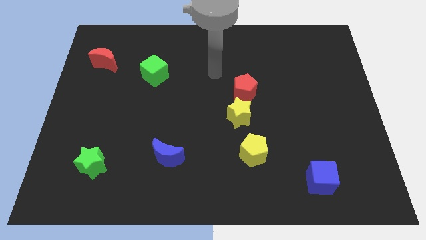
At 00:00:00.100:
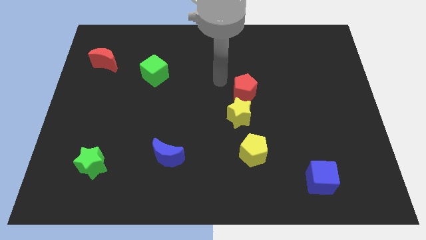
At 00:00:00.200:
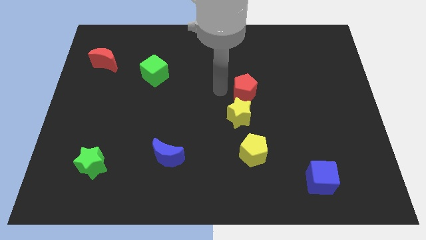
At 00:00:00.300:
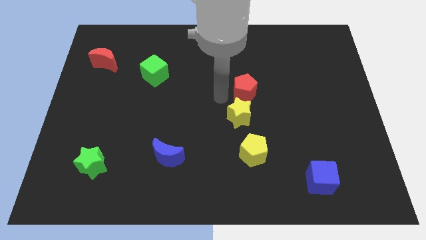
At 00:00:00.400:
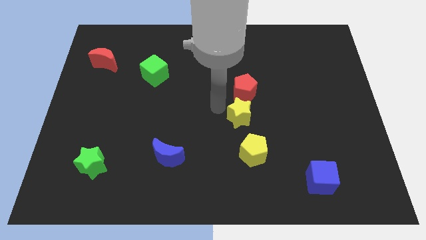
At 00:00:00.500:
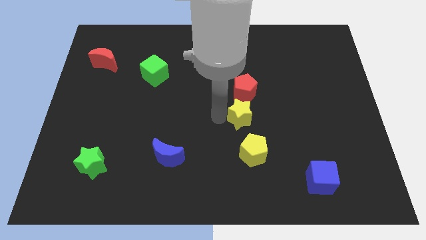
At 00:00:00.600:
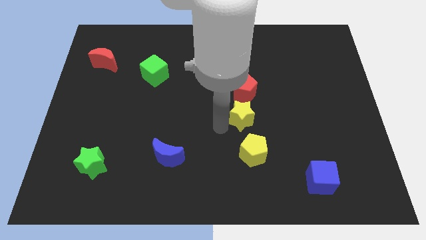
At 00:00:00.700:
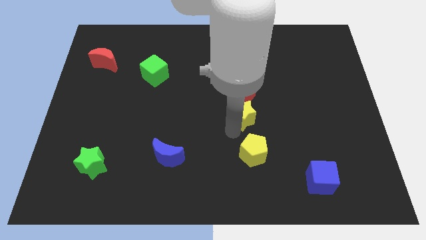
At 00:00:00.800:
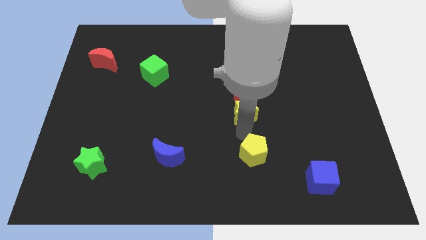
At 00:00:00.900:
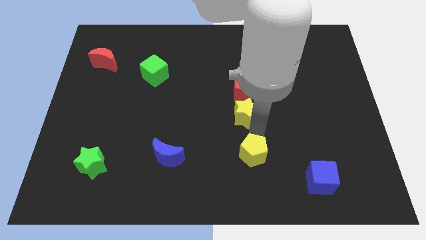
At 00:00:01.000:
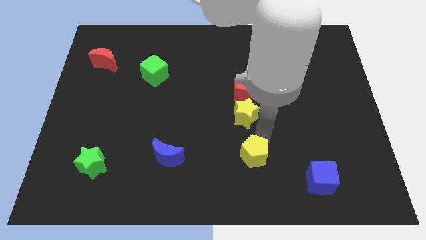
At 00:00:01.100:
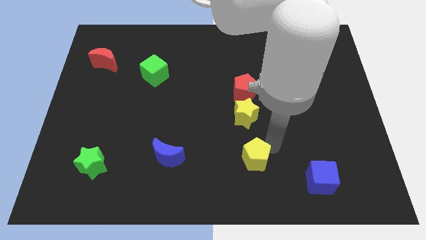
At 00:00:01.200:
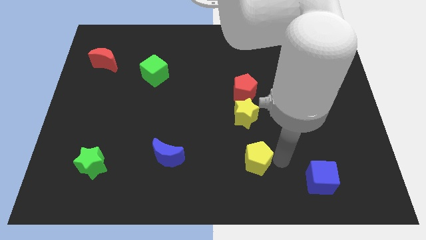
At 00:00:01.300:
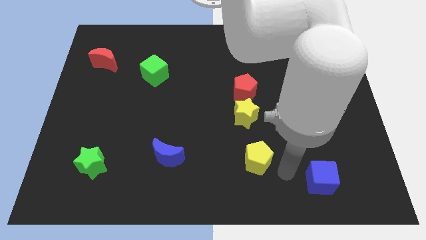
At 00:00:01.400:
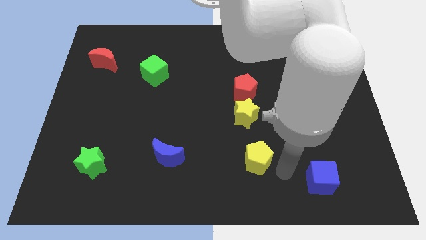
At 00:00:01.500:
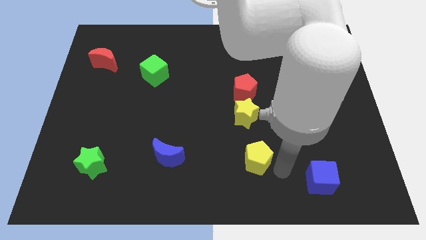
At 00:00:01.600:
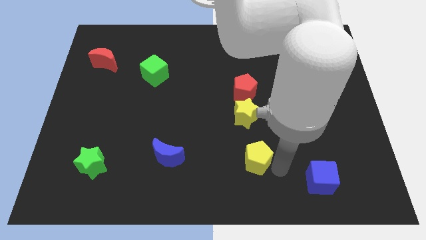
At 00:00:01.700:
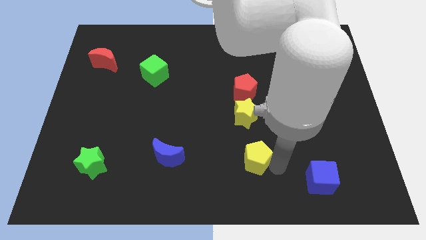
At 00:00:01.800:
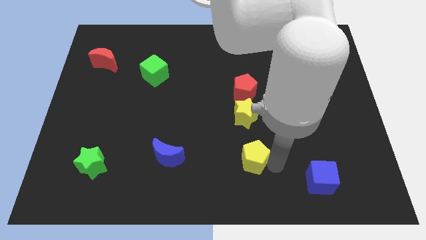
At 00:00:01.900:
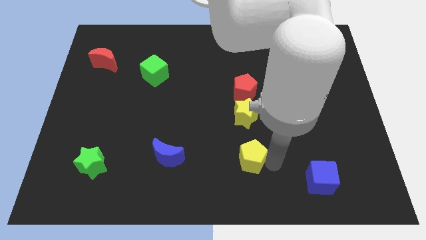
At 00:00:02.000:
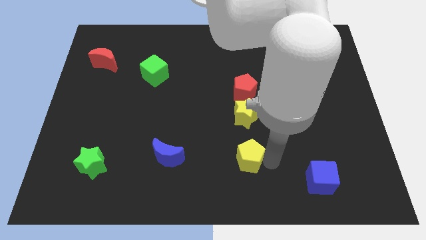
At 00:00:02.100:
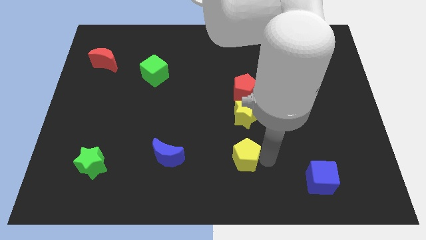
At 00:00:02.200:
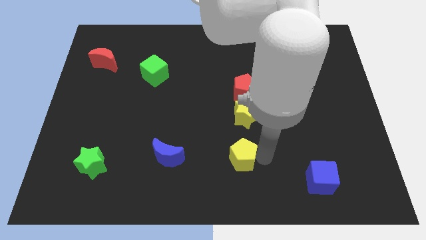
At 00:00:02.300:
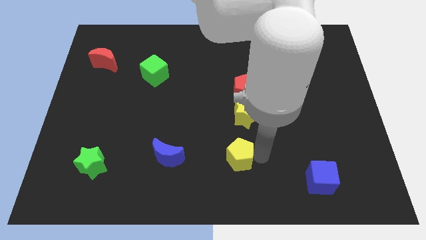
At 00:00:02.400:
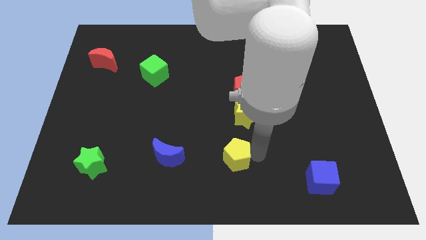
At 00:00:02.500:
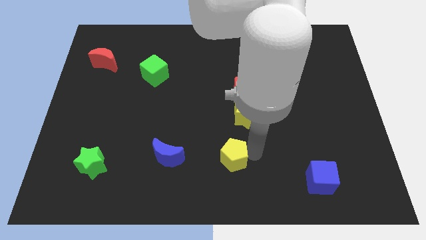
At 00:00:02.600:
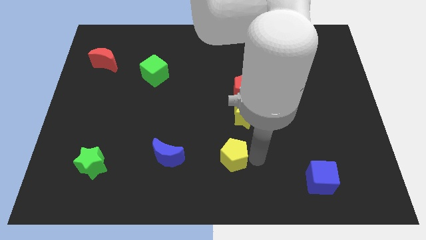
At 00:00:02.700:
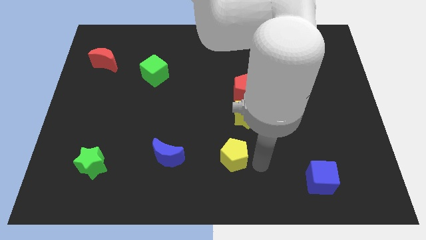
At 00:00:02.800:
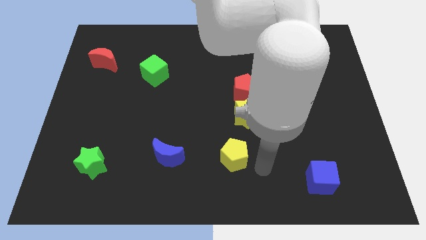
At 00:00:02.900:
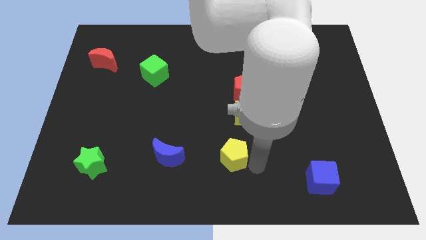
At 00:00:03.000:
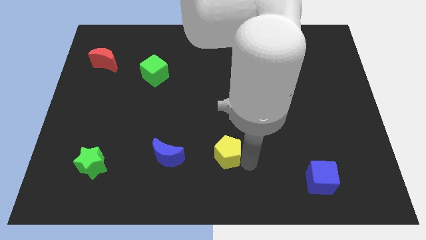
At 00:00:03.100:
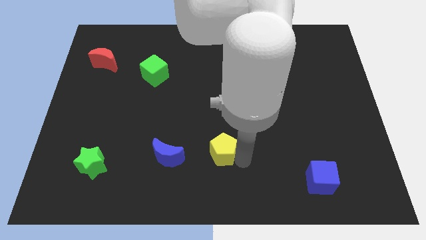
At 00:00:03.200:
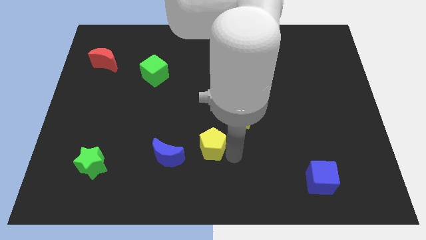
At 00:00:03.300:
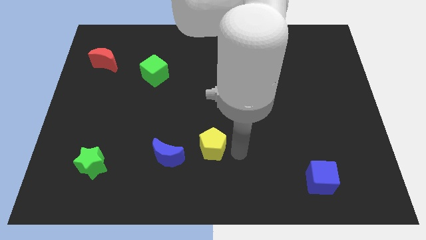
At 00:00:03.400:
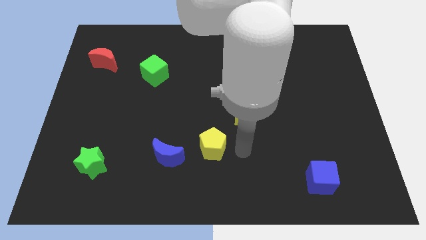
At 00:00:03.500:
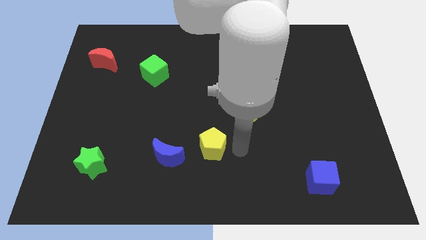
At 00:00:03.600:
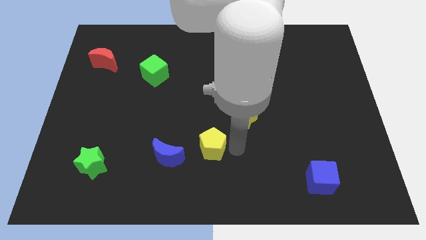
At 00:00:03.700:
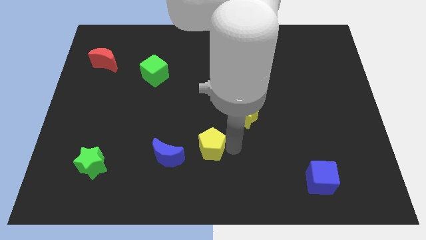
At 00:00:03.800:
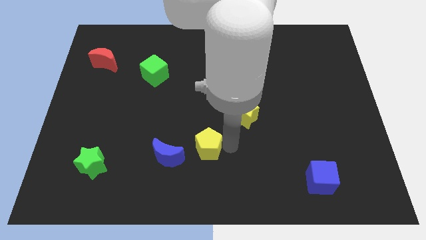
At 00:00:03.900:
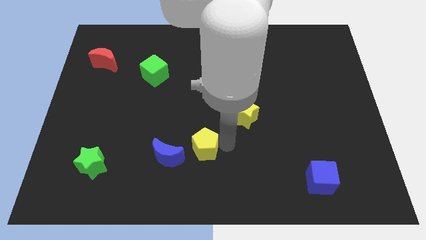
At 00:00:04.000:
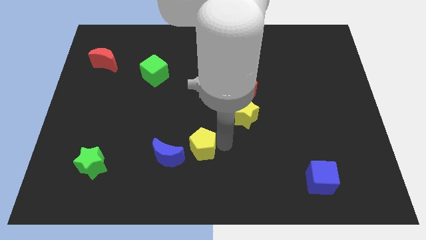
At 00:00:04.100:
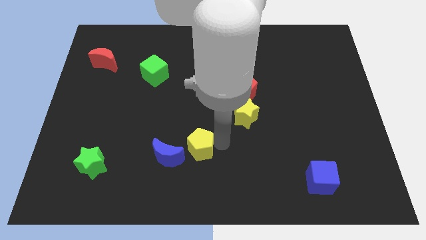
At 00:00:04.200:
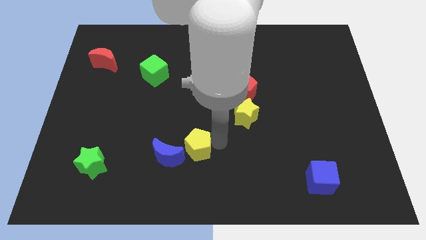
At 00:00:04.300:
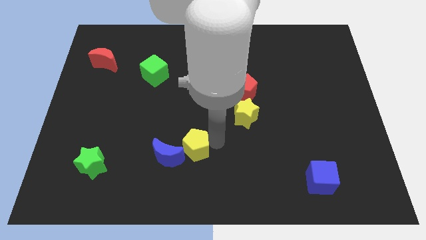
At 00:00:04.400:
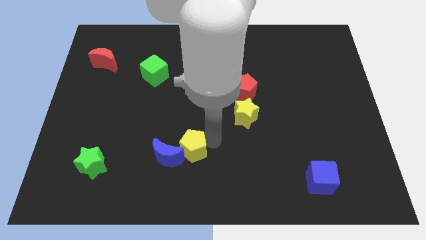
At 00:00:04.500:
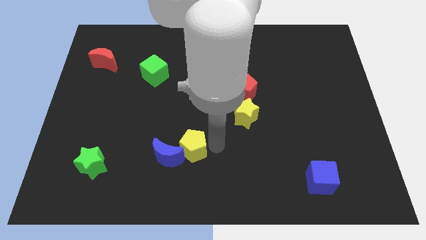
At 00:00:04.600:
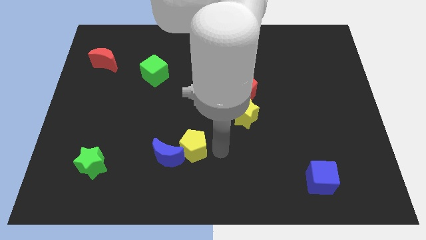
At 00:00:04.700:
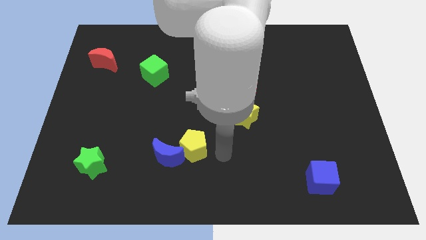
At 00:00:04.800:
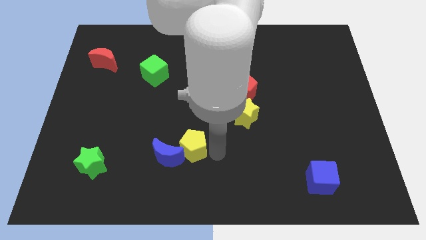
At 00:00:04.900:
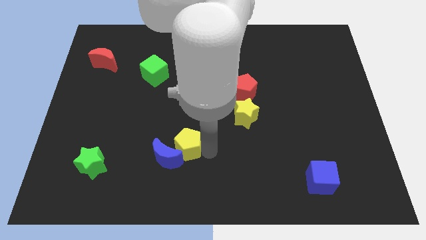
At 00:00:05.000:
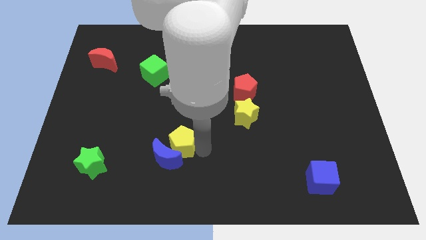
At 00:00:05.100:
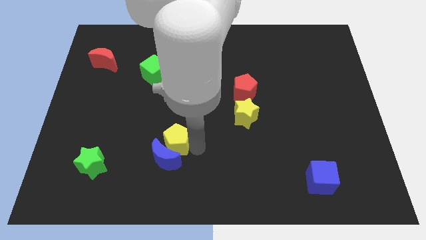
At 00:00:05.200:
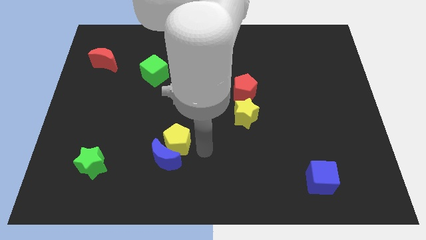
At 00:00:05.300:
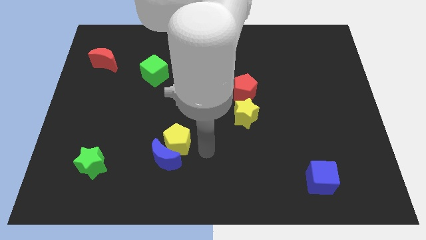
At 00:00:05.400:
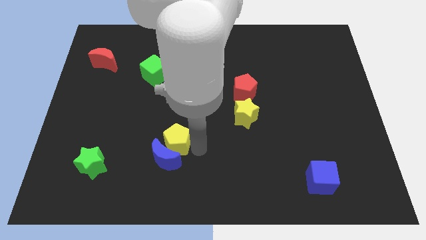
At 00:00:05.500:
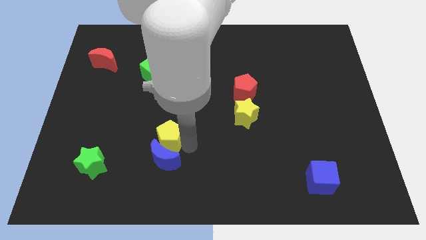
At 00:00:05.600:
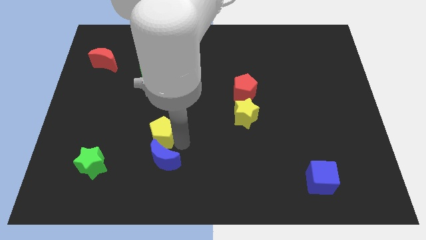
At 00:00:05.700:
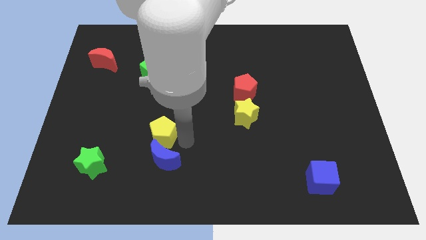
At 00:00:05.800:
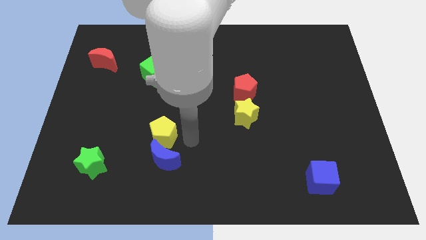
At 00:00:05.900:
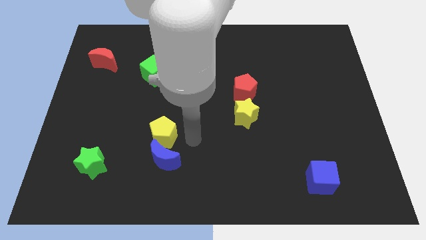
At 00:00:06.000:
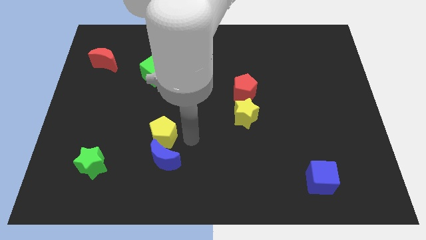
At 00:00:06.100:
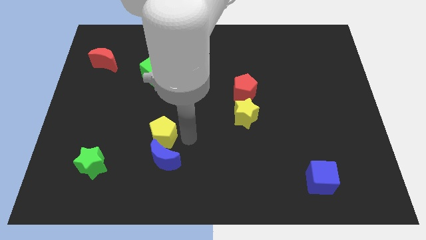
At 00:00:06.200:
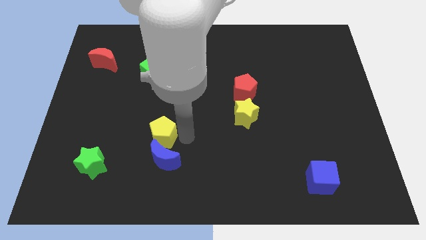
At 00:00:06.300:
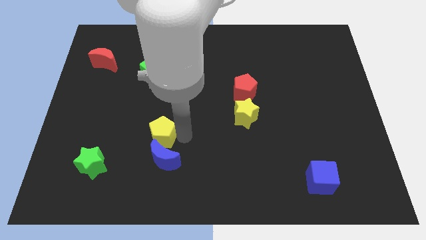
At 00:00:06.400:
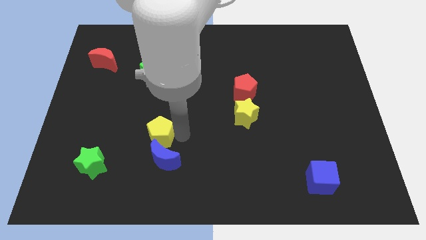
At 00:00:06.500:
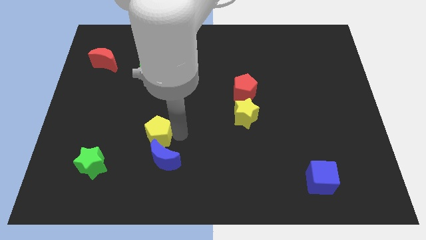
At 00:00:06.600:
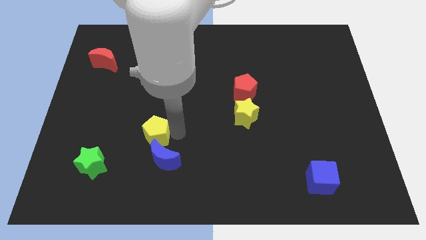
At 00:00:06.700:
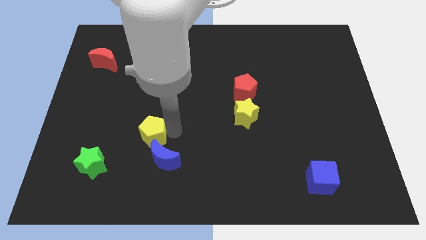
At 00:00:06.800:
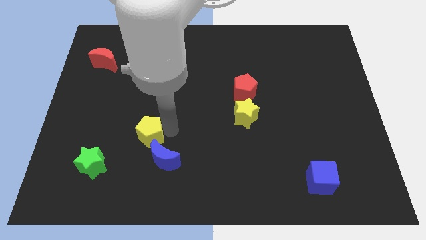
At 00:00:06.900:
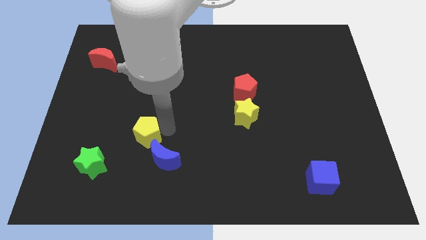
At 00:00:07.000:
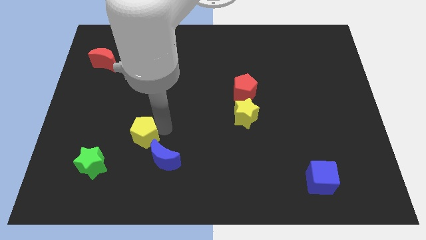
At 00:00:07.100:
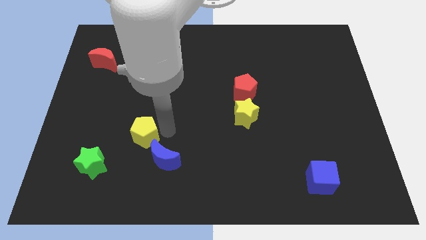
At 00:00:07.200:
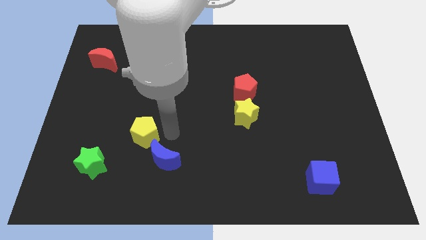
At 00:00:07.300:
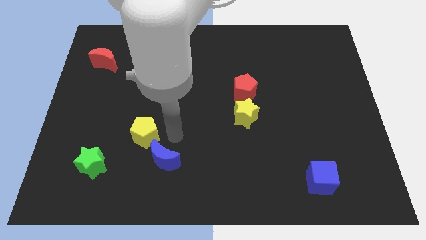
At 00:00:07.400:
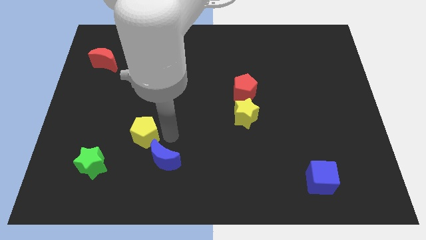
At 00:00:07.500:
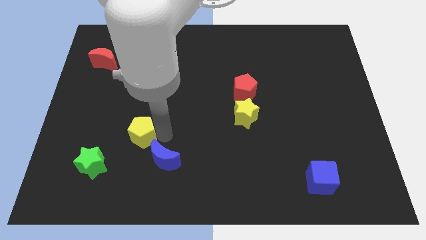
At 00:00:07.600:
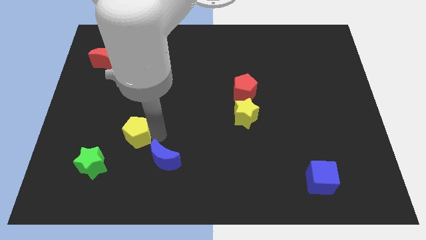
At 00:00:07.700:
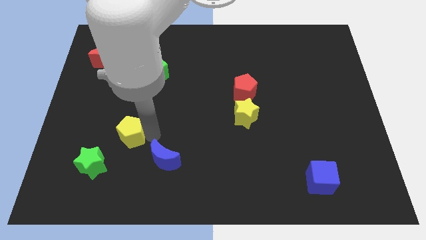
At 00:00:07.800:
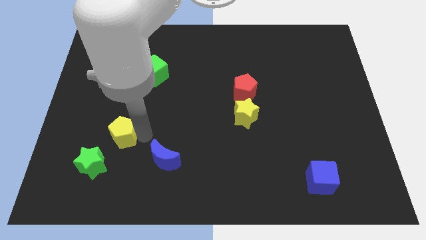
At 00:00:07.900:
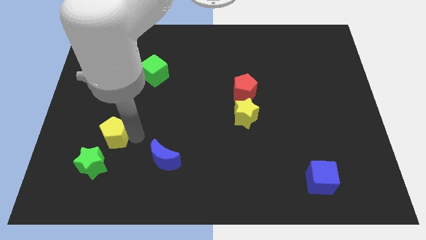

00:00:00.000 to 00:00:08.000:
push the yellow pentagon to the top side of the green star
